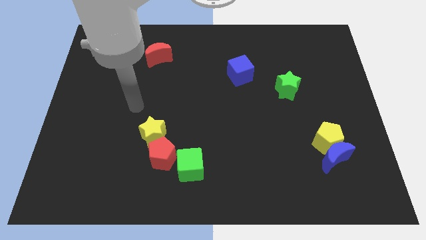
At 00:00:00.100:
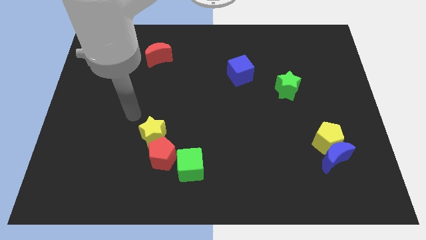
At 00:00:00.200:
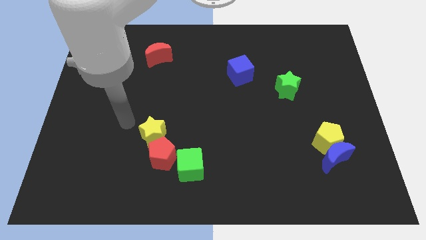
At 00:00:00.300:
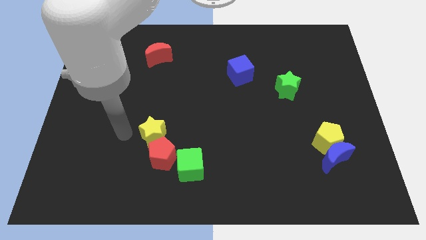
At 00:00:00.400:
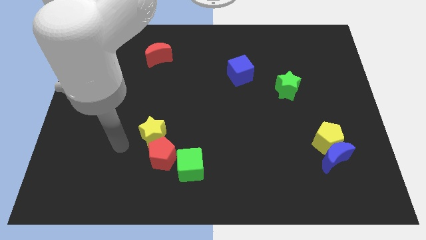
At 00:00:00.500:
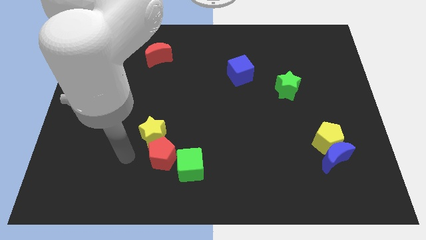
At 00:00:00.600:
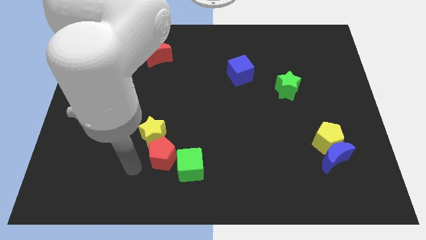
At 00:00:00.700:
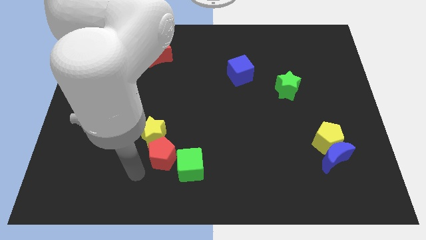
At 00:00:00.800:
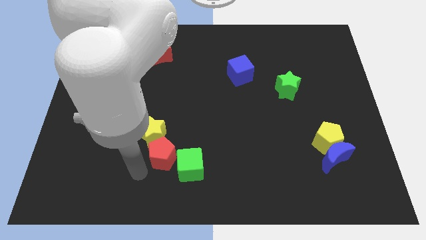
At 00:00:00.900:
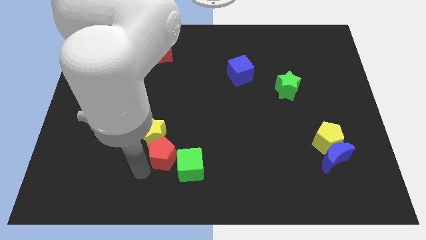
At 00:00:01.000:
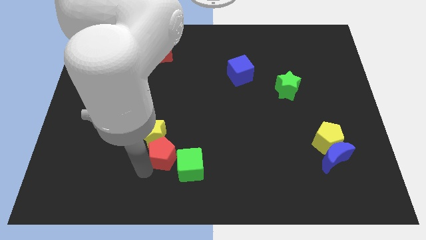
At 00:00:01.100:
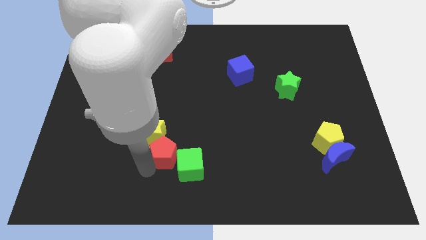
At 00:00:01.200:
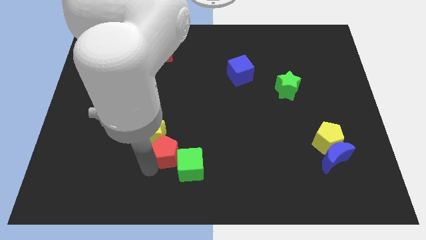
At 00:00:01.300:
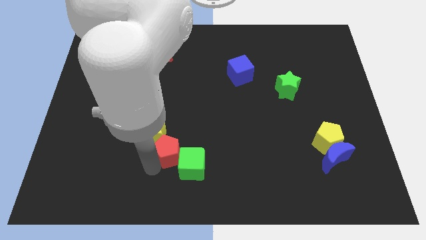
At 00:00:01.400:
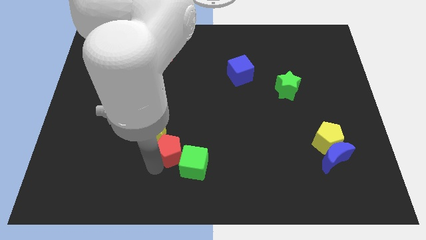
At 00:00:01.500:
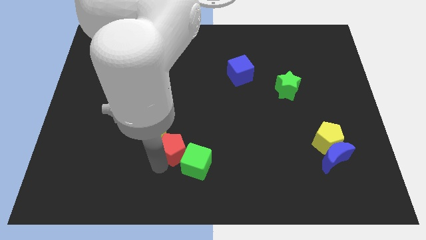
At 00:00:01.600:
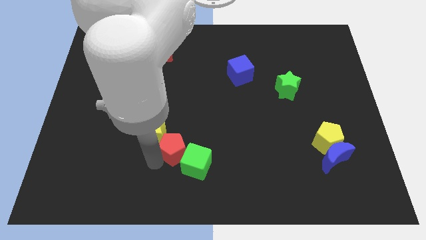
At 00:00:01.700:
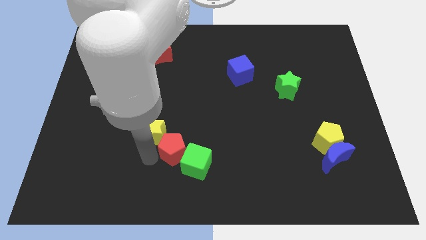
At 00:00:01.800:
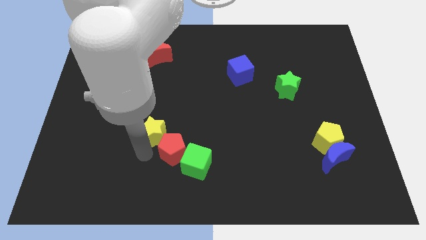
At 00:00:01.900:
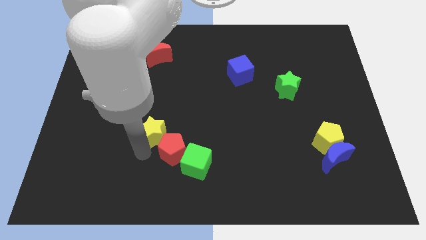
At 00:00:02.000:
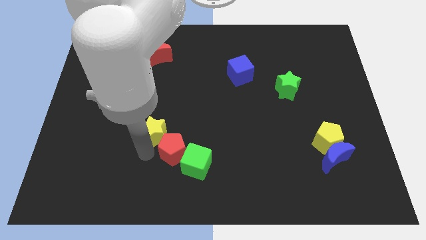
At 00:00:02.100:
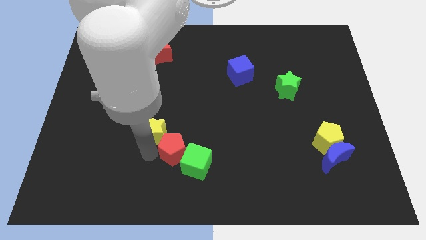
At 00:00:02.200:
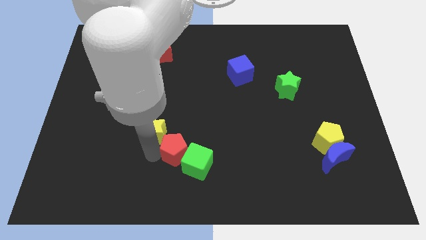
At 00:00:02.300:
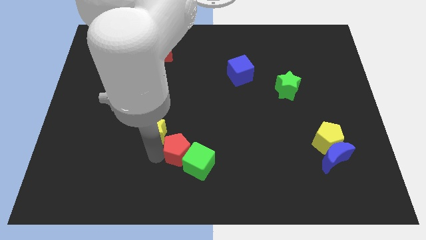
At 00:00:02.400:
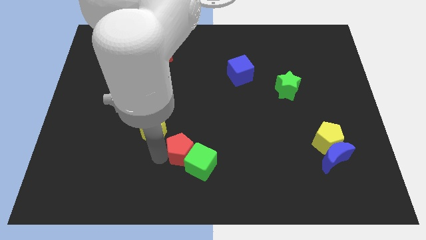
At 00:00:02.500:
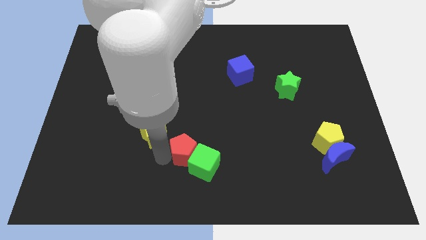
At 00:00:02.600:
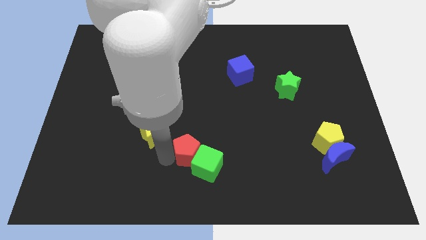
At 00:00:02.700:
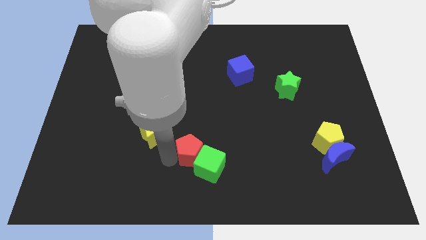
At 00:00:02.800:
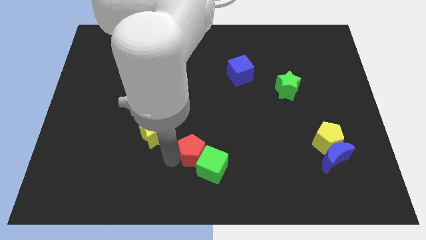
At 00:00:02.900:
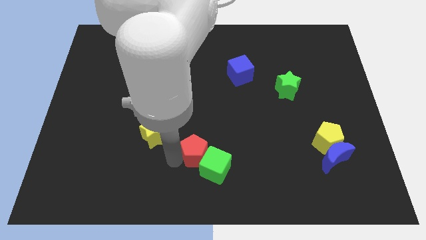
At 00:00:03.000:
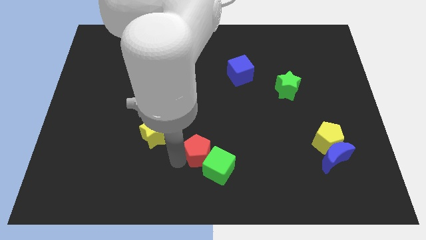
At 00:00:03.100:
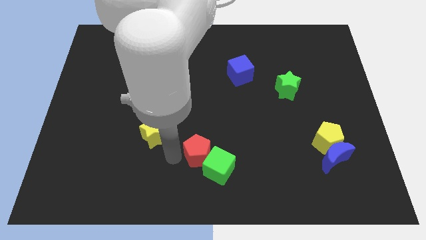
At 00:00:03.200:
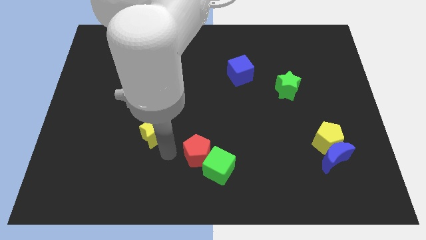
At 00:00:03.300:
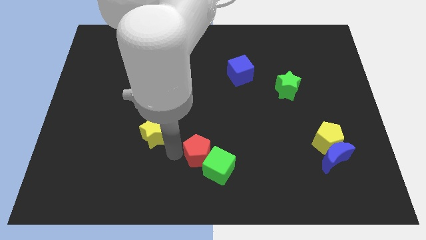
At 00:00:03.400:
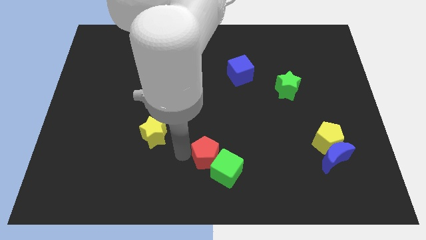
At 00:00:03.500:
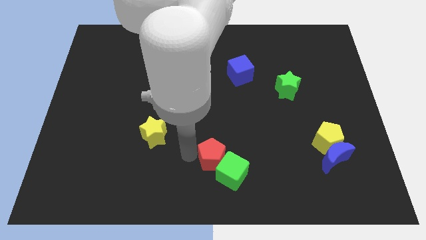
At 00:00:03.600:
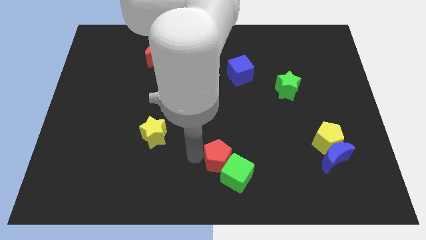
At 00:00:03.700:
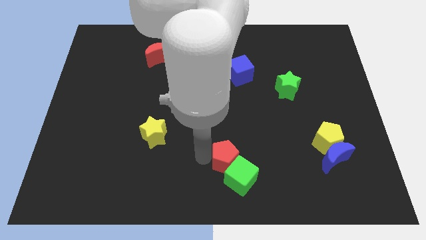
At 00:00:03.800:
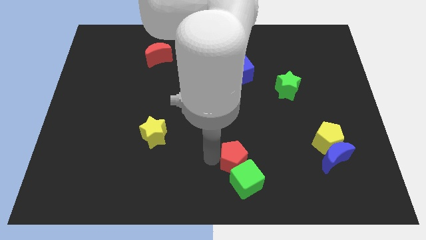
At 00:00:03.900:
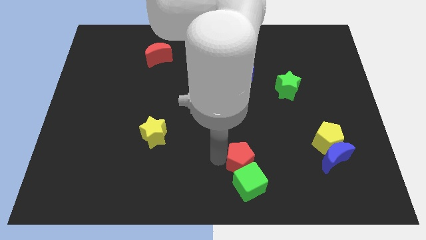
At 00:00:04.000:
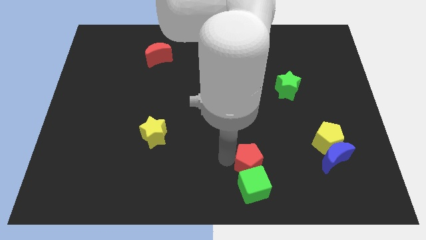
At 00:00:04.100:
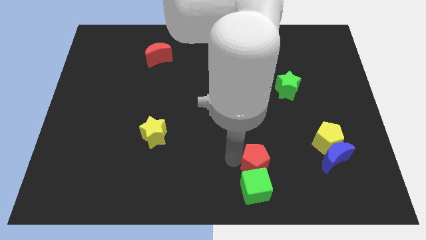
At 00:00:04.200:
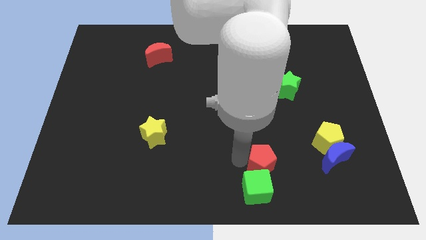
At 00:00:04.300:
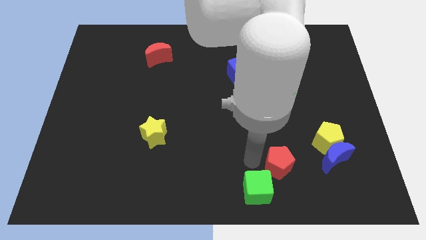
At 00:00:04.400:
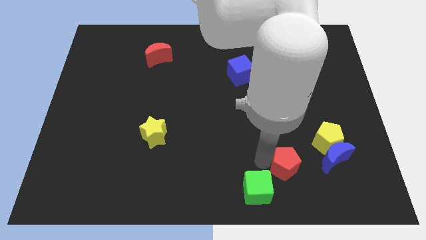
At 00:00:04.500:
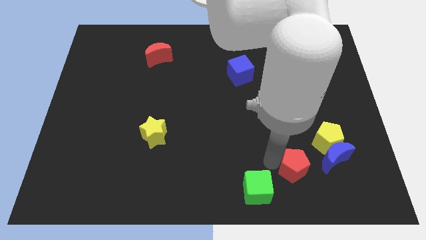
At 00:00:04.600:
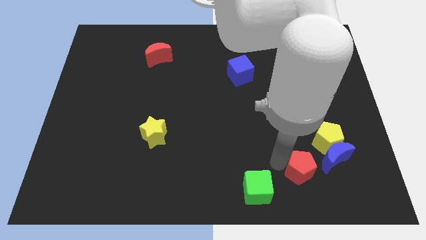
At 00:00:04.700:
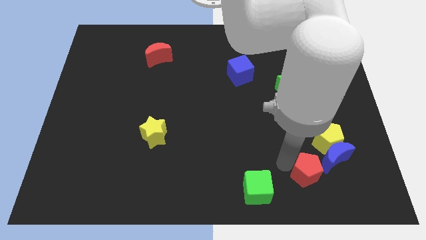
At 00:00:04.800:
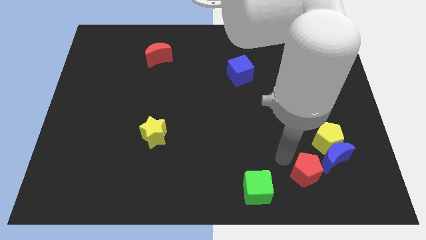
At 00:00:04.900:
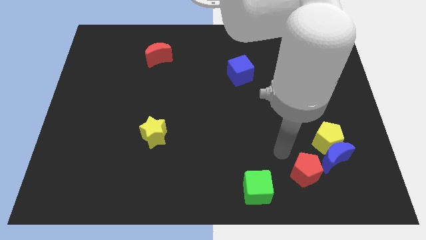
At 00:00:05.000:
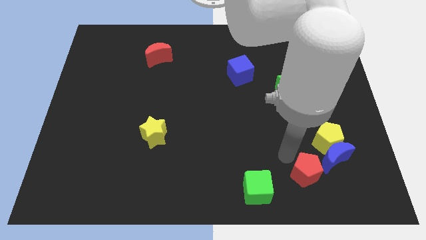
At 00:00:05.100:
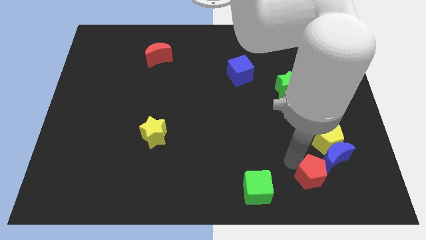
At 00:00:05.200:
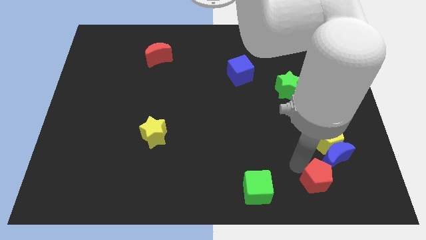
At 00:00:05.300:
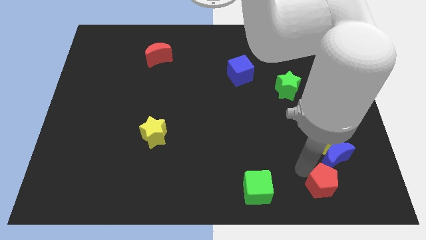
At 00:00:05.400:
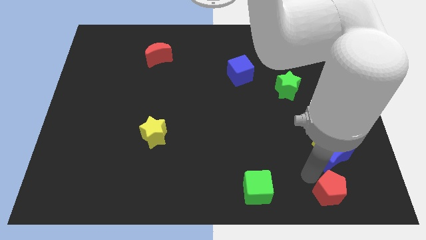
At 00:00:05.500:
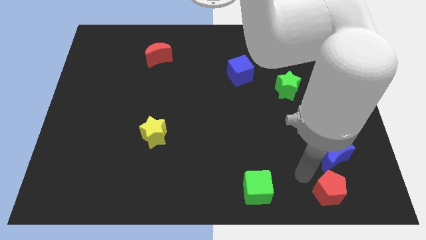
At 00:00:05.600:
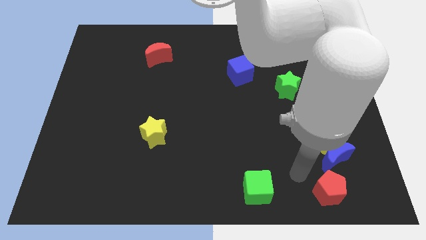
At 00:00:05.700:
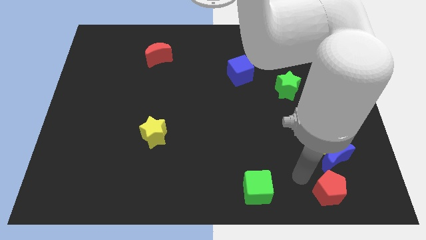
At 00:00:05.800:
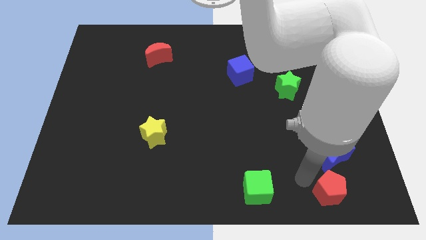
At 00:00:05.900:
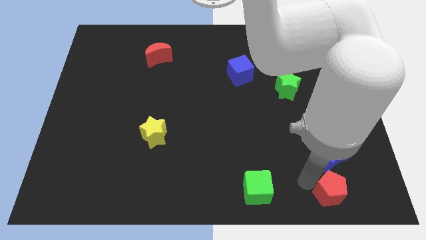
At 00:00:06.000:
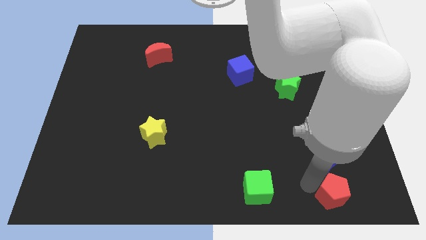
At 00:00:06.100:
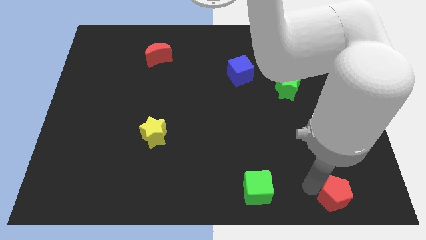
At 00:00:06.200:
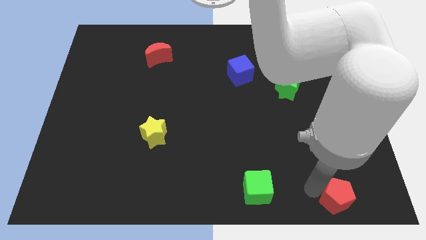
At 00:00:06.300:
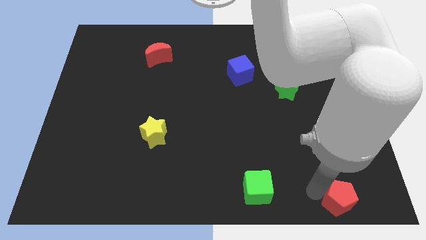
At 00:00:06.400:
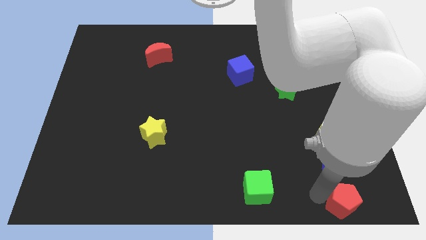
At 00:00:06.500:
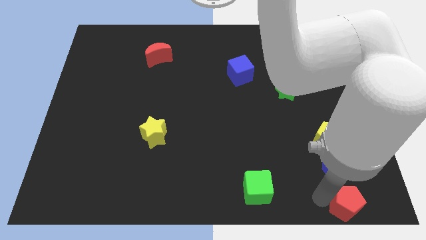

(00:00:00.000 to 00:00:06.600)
put the red pentagon to the bottom right of the board
